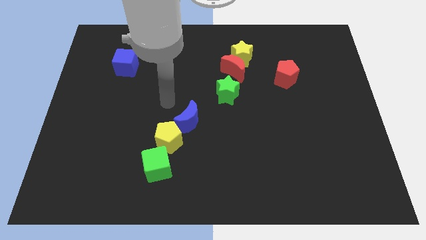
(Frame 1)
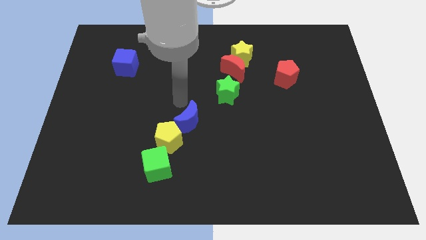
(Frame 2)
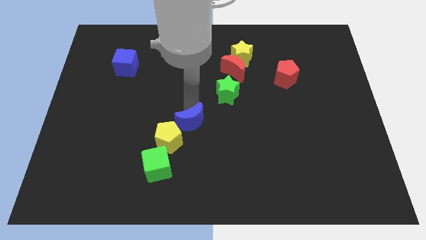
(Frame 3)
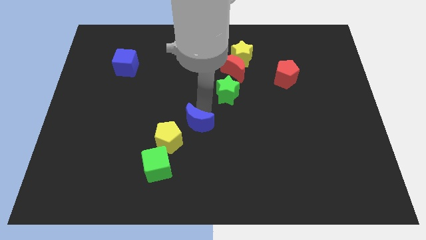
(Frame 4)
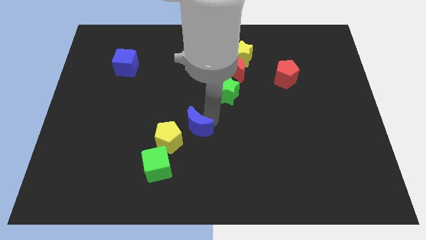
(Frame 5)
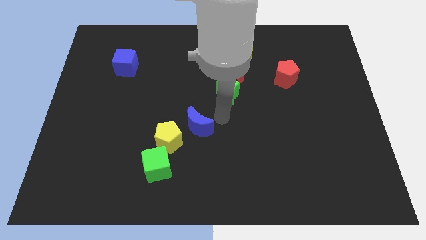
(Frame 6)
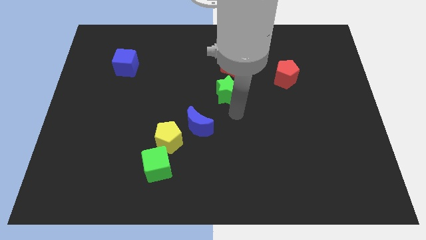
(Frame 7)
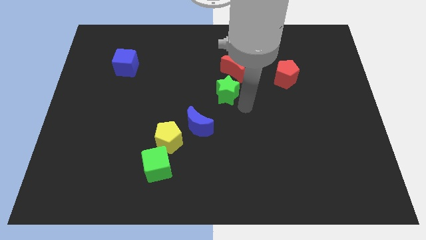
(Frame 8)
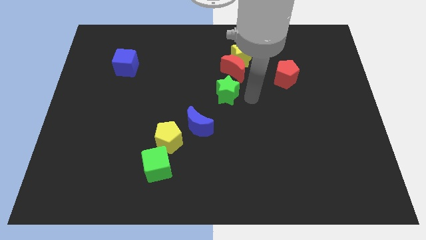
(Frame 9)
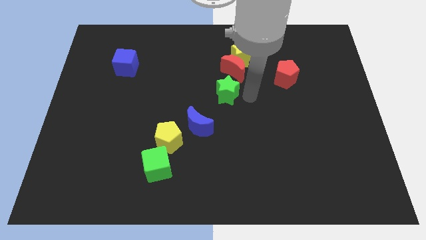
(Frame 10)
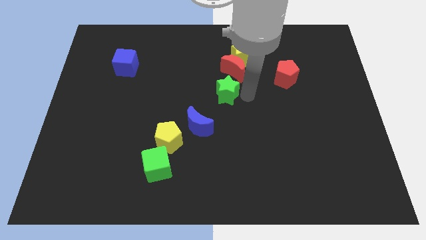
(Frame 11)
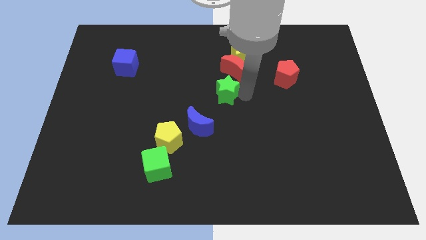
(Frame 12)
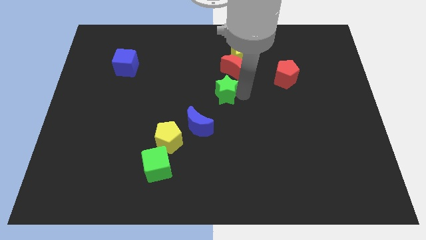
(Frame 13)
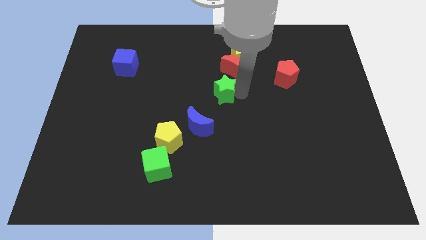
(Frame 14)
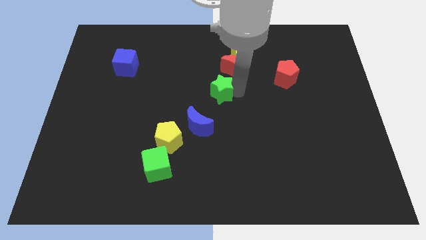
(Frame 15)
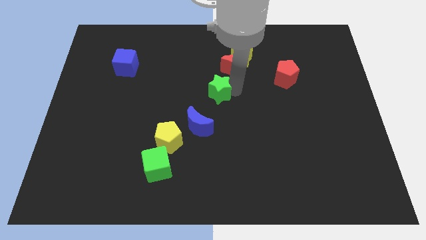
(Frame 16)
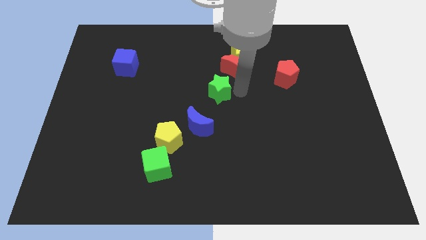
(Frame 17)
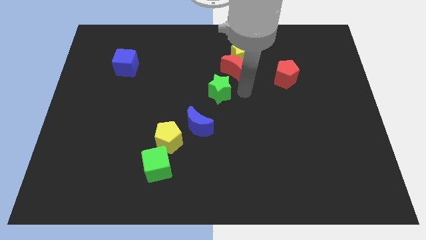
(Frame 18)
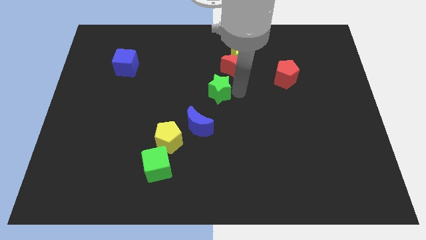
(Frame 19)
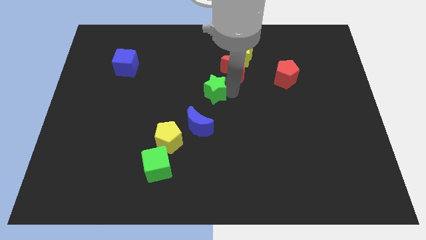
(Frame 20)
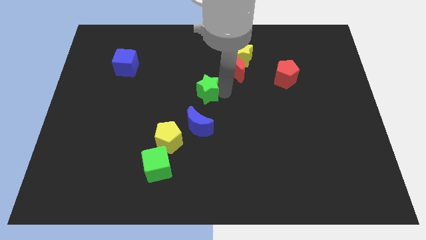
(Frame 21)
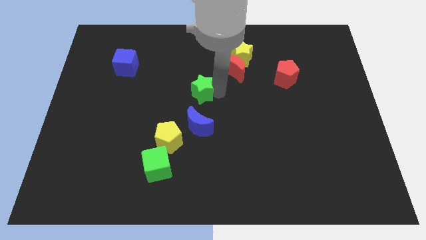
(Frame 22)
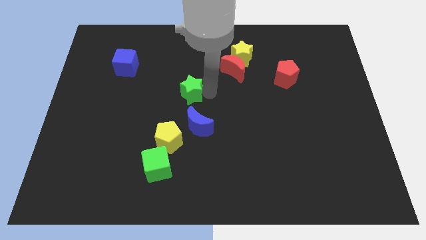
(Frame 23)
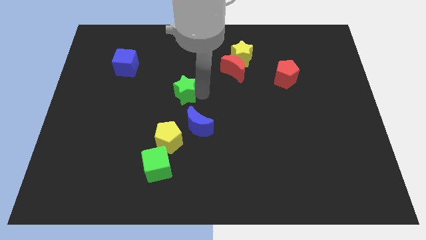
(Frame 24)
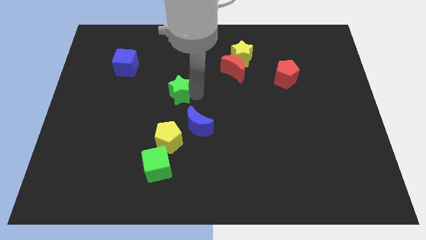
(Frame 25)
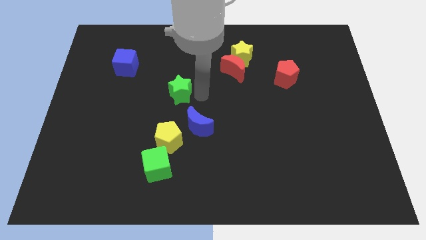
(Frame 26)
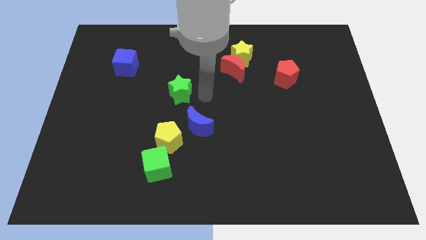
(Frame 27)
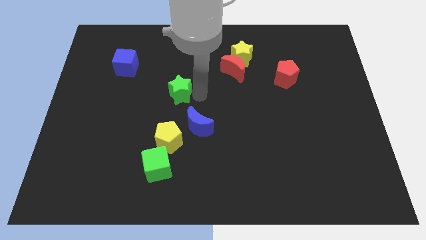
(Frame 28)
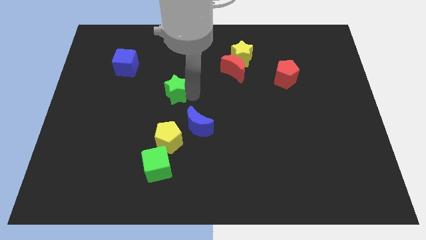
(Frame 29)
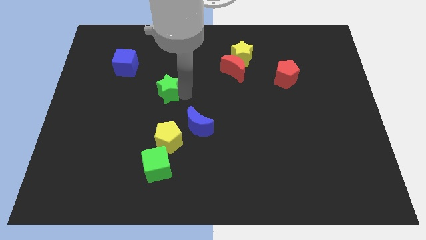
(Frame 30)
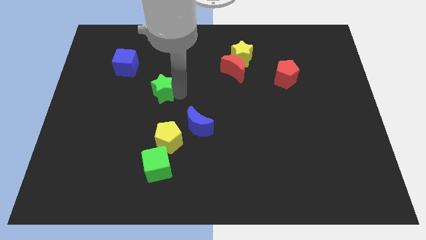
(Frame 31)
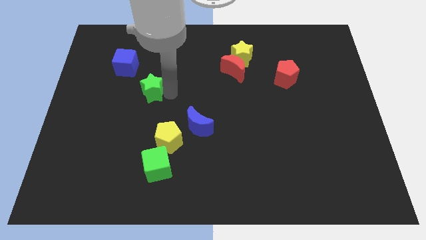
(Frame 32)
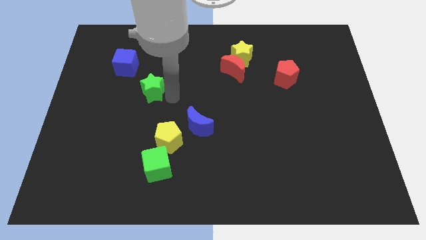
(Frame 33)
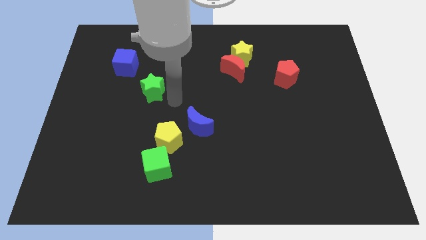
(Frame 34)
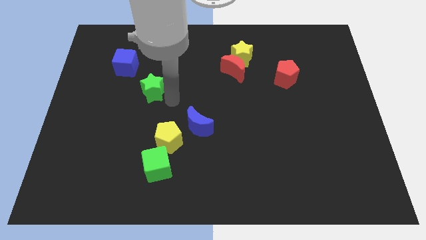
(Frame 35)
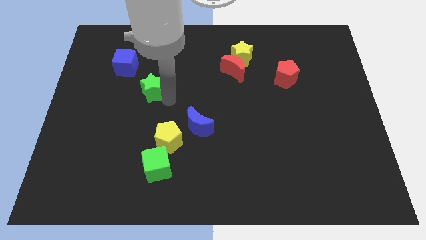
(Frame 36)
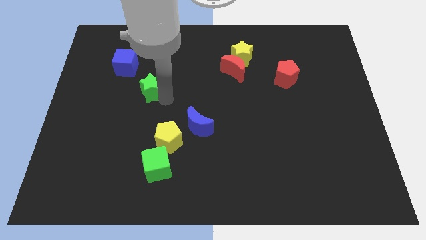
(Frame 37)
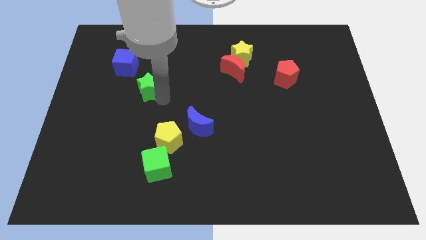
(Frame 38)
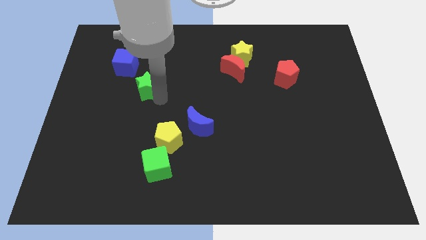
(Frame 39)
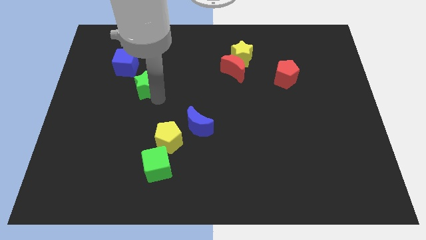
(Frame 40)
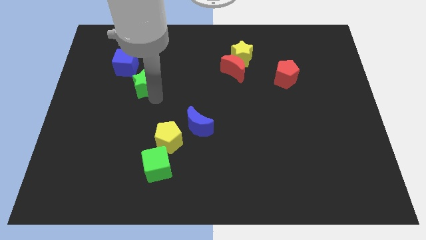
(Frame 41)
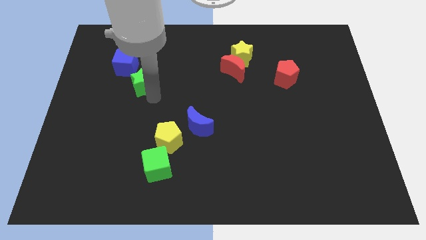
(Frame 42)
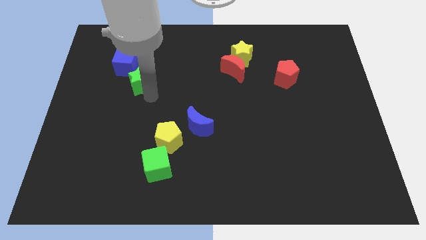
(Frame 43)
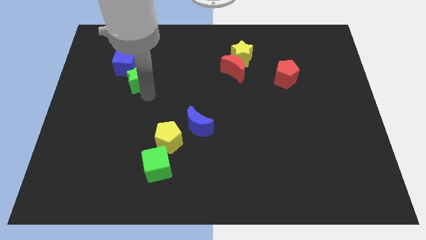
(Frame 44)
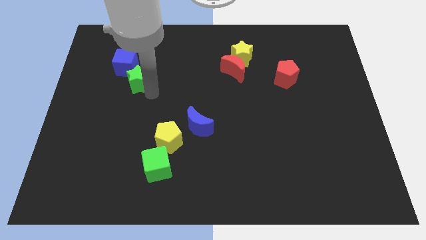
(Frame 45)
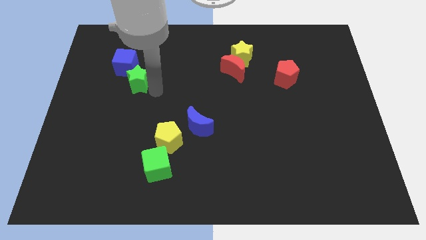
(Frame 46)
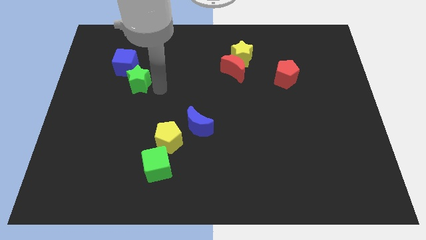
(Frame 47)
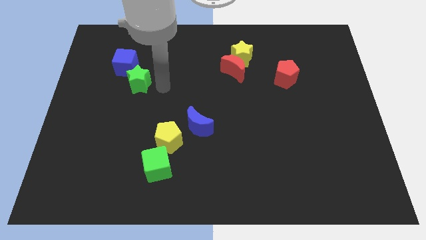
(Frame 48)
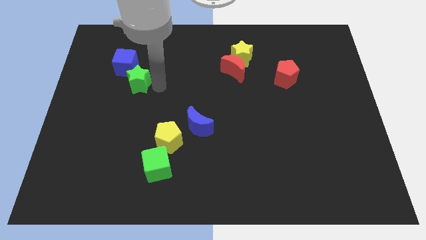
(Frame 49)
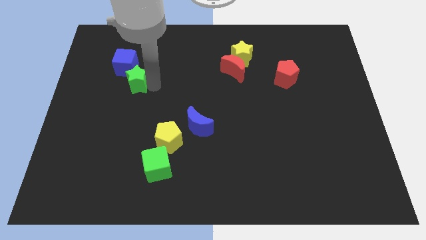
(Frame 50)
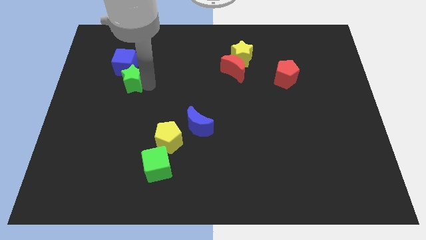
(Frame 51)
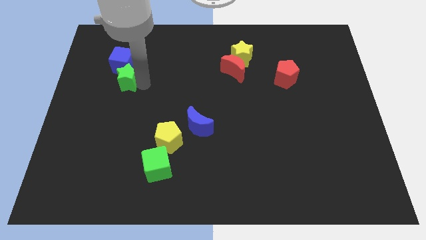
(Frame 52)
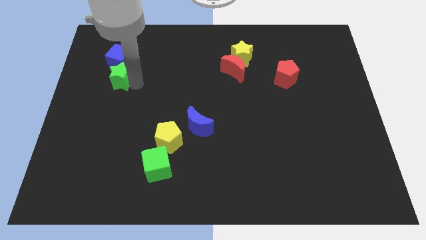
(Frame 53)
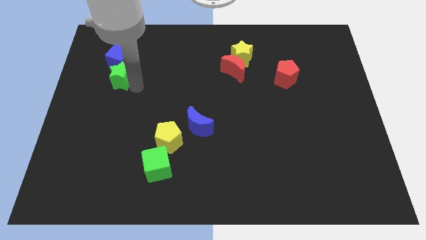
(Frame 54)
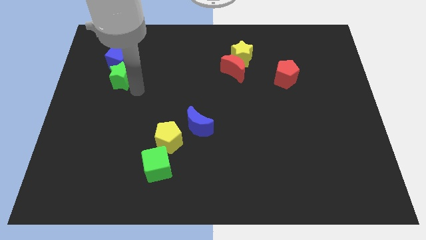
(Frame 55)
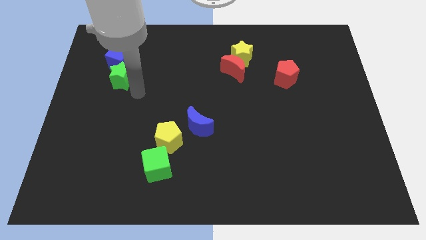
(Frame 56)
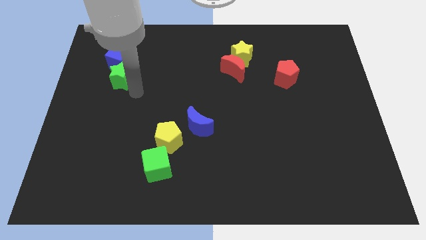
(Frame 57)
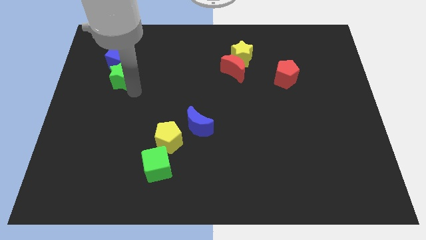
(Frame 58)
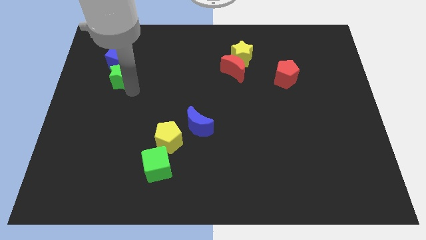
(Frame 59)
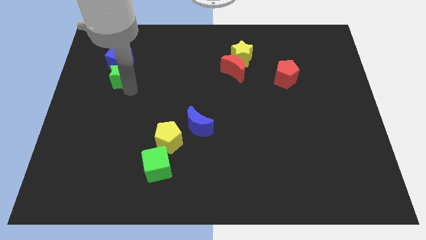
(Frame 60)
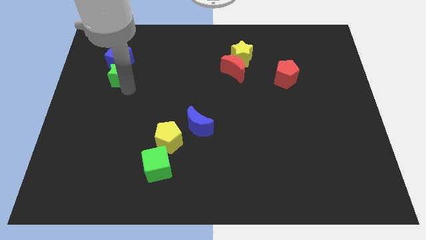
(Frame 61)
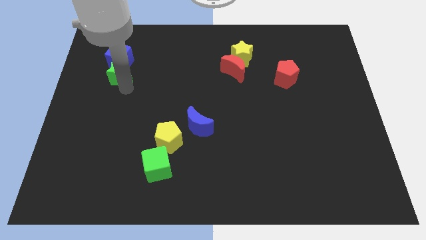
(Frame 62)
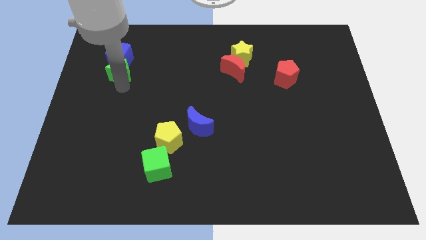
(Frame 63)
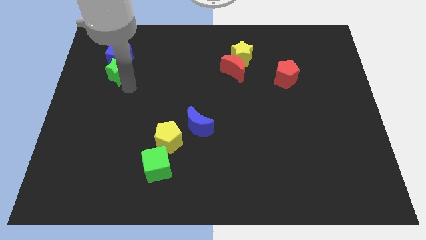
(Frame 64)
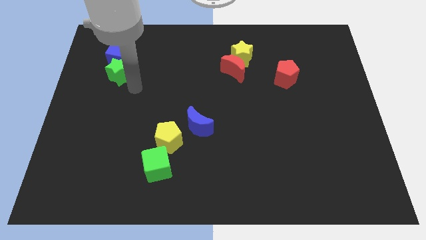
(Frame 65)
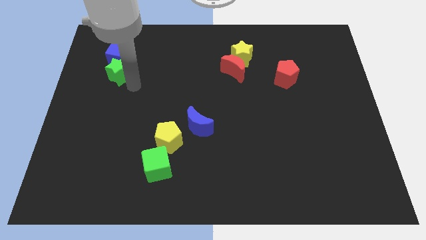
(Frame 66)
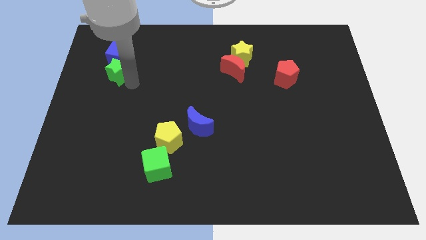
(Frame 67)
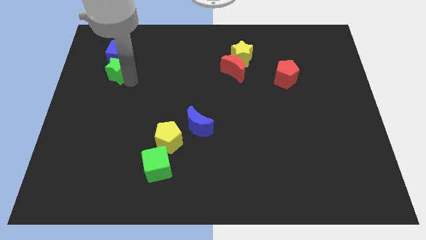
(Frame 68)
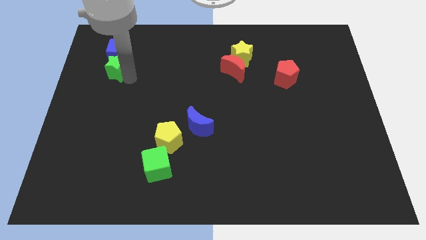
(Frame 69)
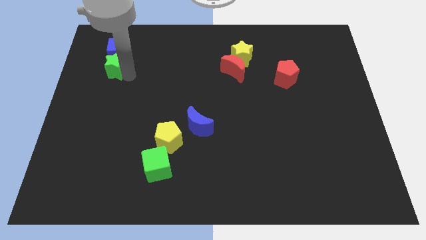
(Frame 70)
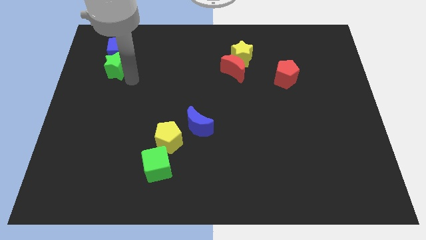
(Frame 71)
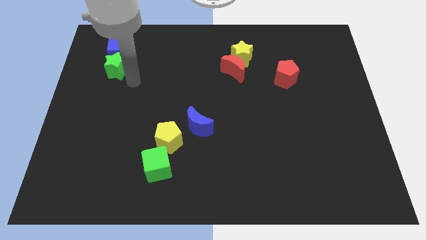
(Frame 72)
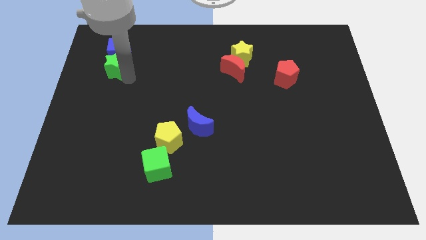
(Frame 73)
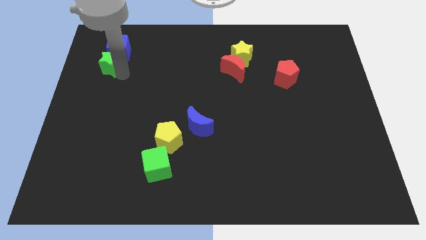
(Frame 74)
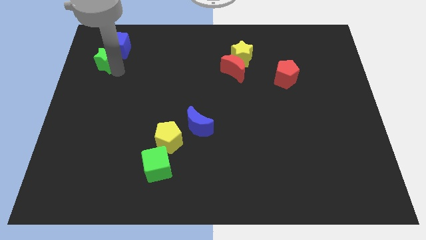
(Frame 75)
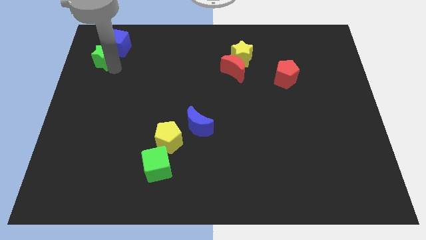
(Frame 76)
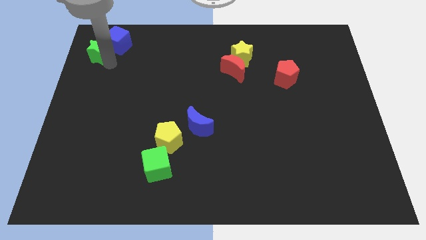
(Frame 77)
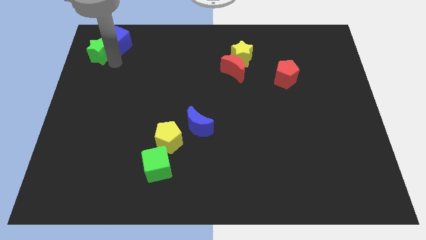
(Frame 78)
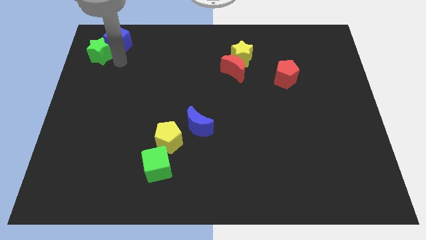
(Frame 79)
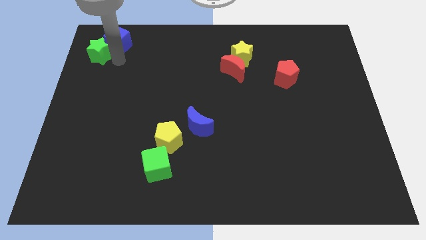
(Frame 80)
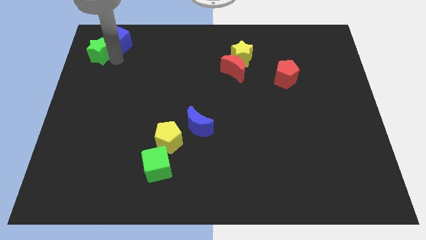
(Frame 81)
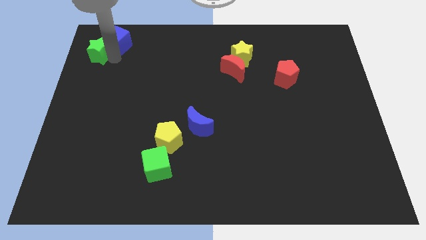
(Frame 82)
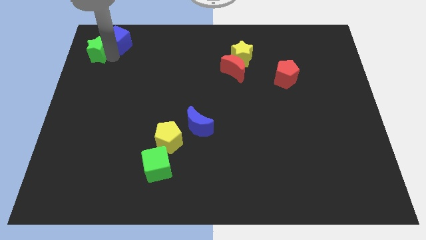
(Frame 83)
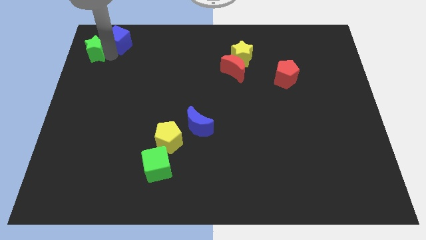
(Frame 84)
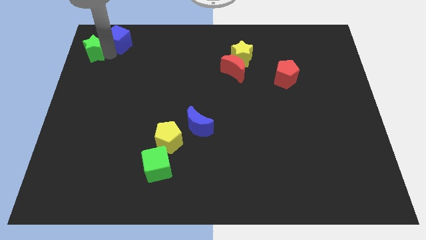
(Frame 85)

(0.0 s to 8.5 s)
push the green star to the top left
